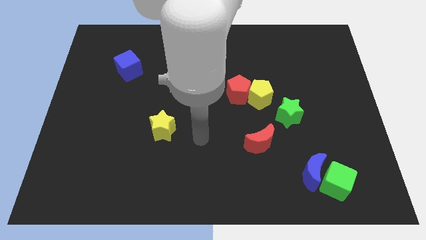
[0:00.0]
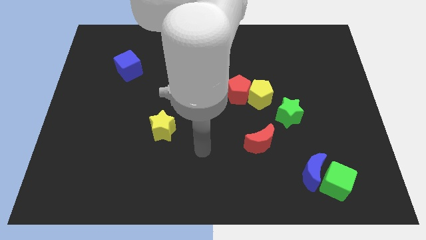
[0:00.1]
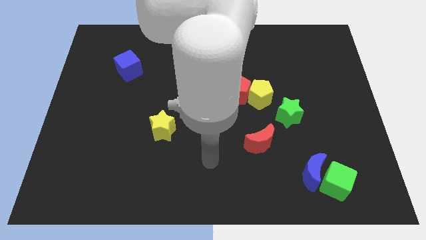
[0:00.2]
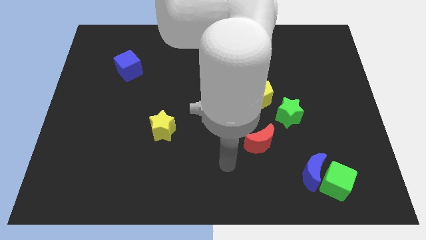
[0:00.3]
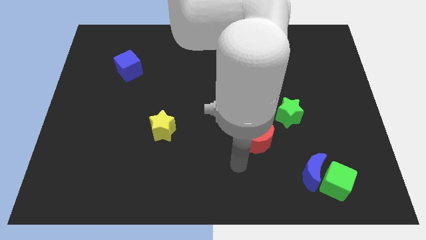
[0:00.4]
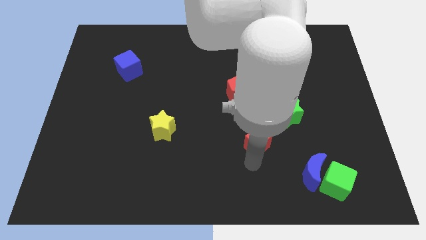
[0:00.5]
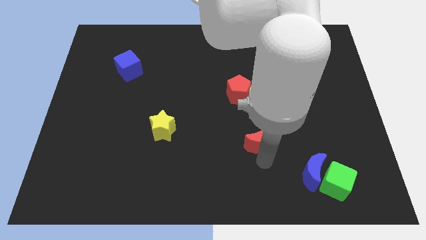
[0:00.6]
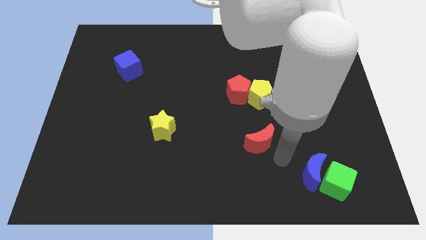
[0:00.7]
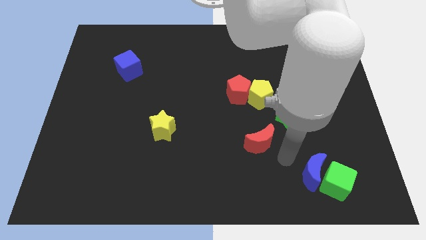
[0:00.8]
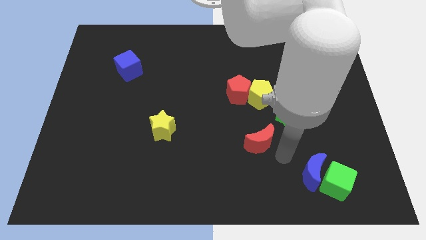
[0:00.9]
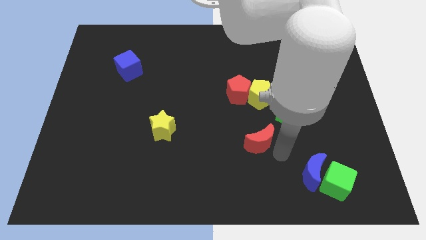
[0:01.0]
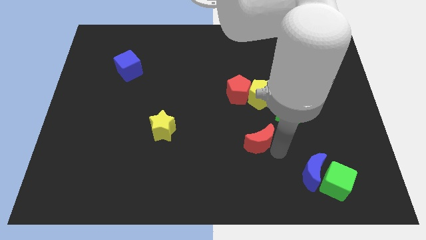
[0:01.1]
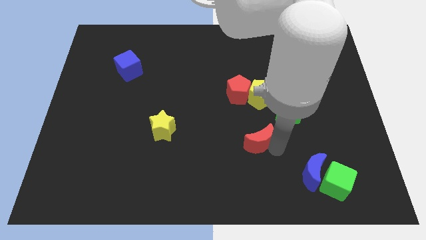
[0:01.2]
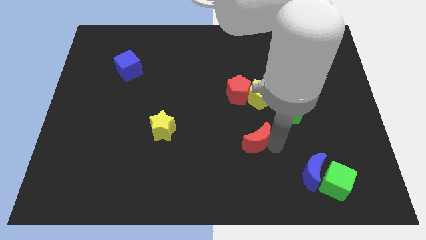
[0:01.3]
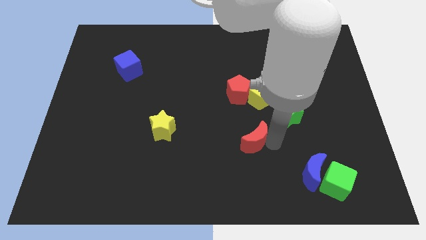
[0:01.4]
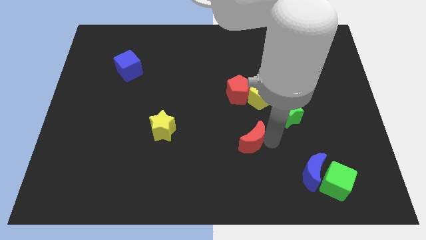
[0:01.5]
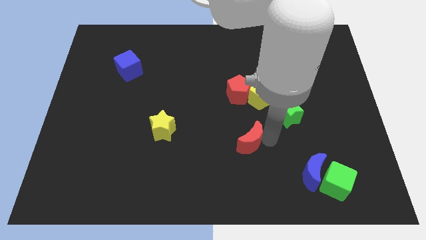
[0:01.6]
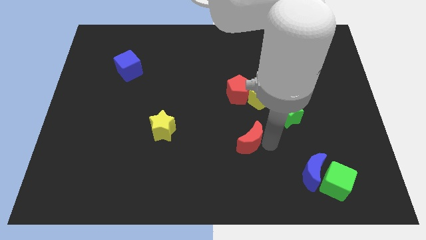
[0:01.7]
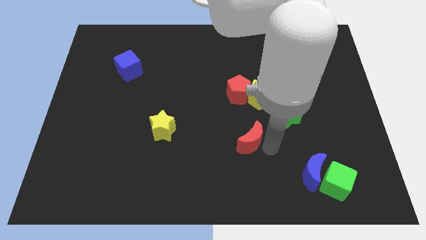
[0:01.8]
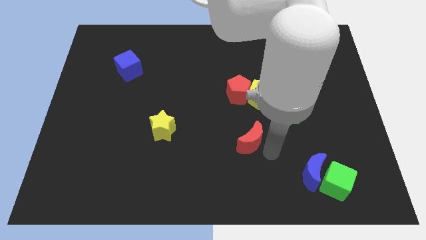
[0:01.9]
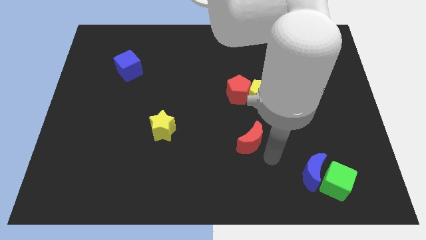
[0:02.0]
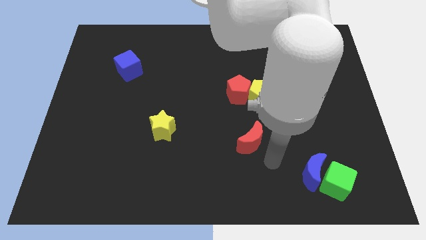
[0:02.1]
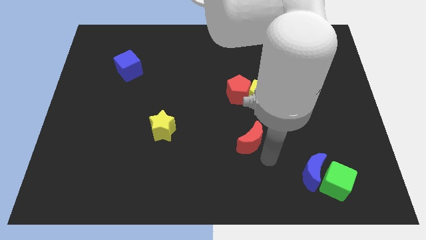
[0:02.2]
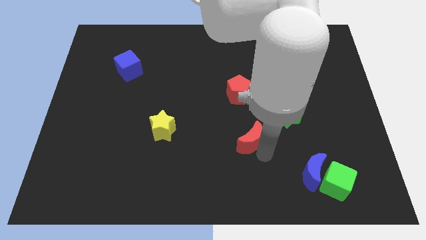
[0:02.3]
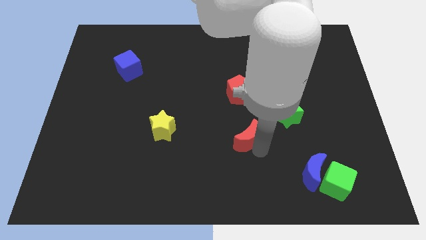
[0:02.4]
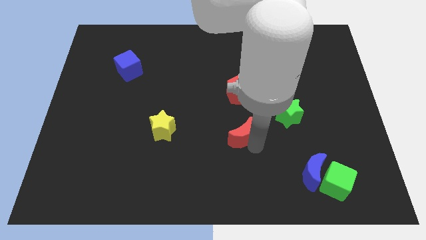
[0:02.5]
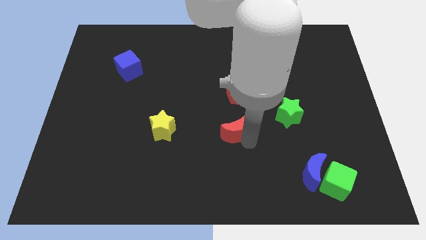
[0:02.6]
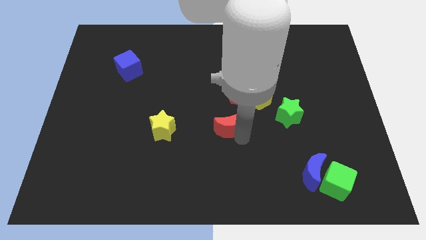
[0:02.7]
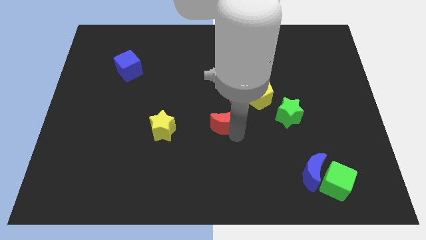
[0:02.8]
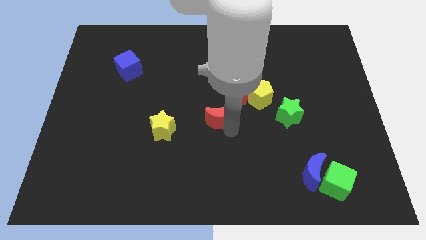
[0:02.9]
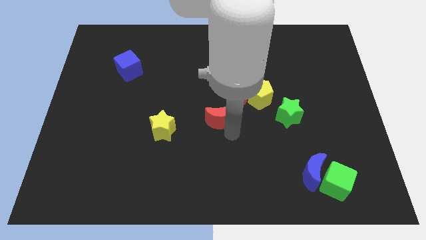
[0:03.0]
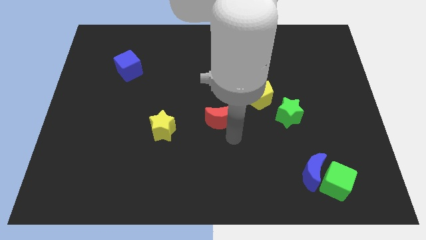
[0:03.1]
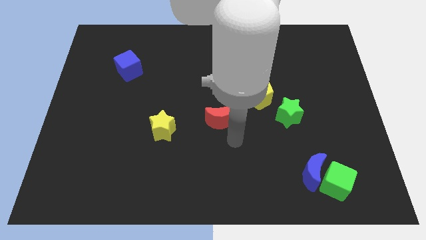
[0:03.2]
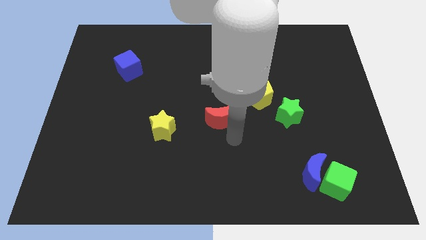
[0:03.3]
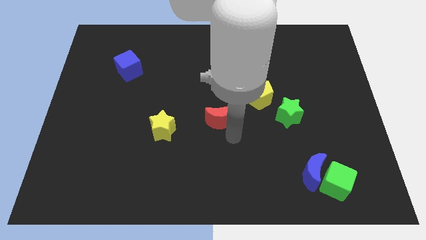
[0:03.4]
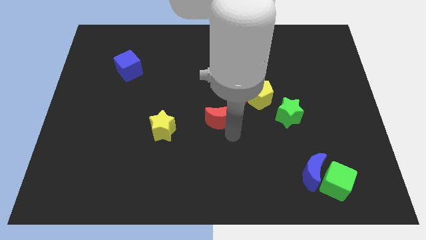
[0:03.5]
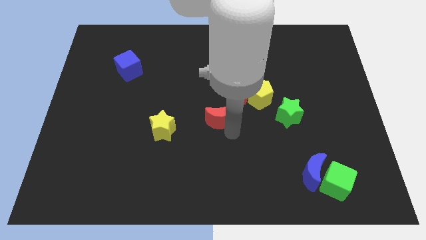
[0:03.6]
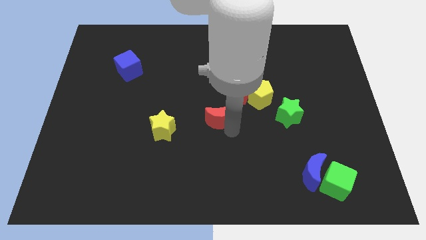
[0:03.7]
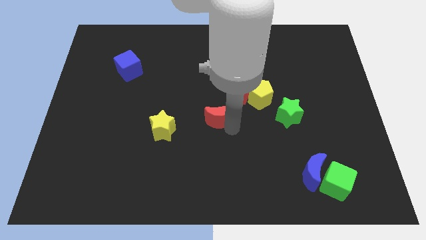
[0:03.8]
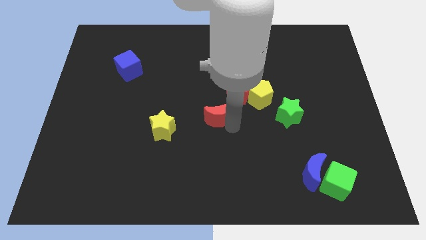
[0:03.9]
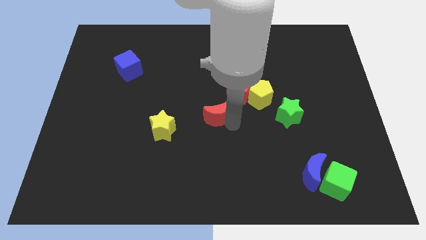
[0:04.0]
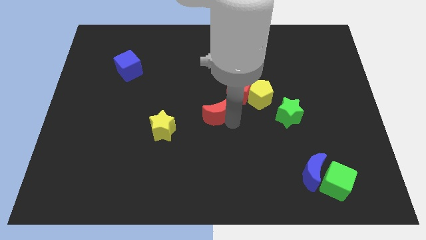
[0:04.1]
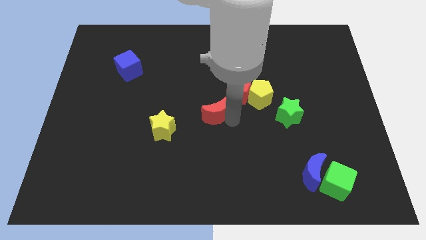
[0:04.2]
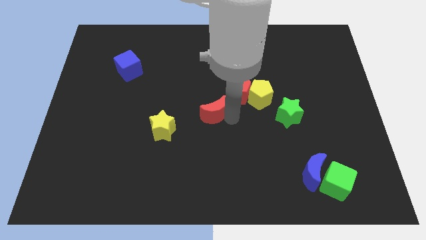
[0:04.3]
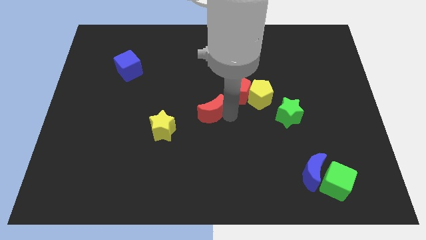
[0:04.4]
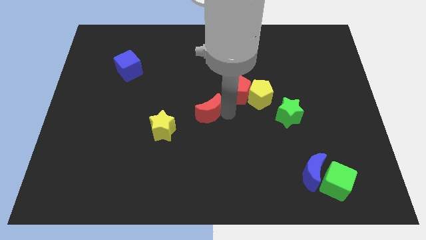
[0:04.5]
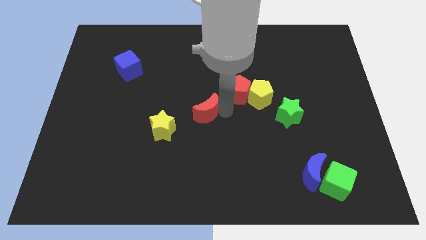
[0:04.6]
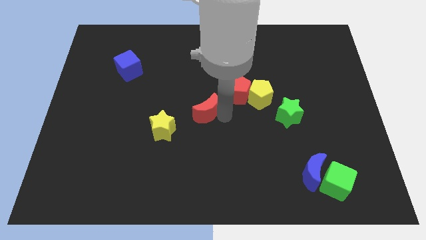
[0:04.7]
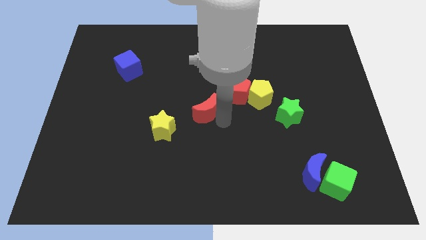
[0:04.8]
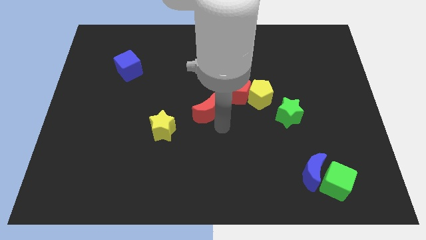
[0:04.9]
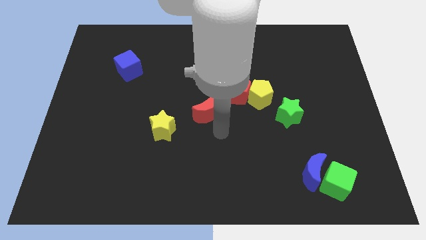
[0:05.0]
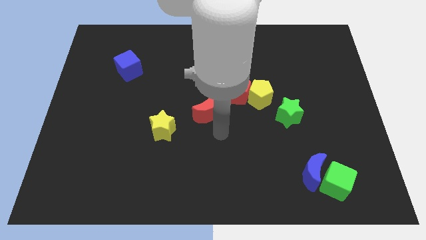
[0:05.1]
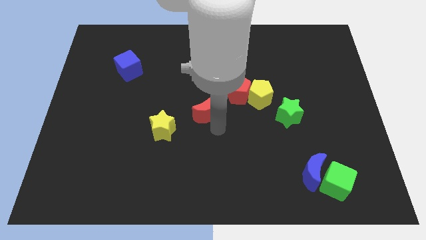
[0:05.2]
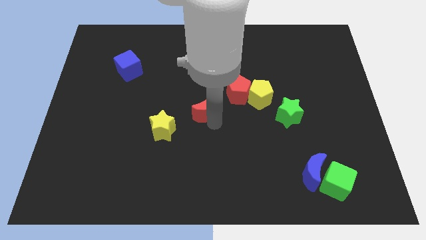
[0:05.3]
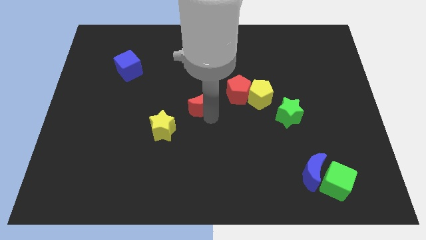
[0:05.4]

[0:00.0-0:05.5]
put the red moon left of the red pentagon

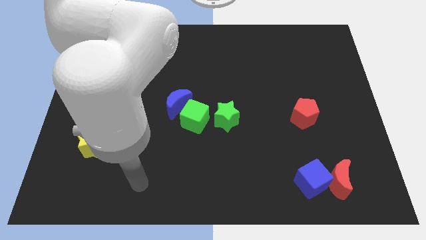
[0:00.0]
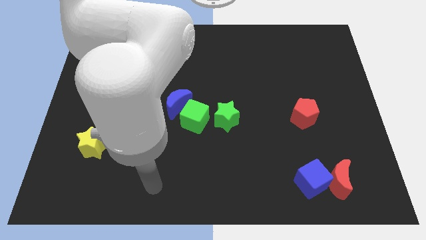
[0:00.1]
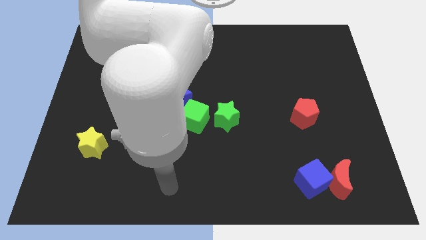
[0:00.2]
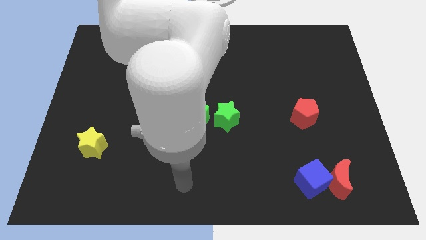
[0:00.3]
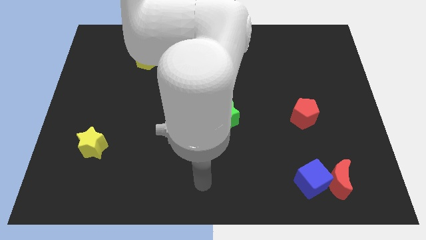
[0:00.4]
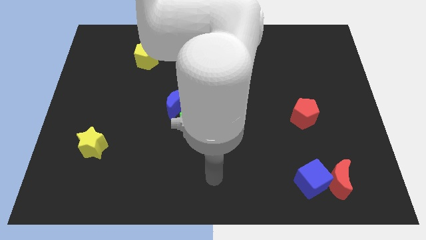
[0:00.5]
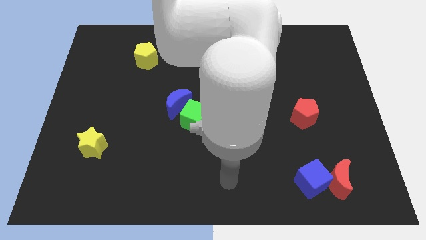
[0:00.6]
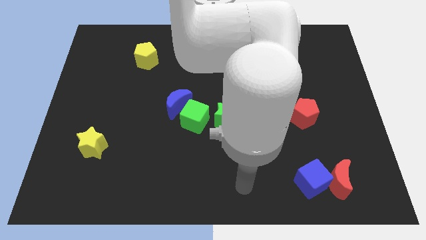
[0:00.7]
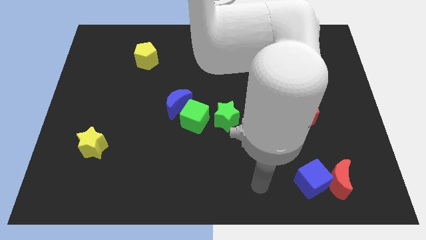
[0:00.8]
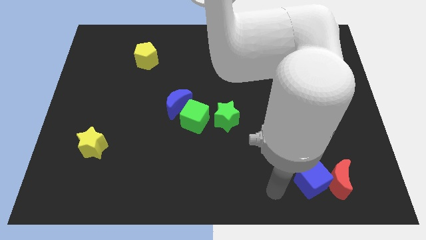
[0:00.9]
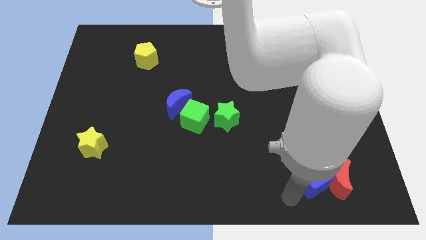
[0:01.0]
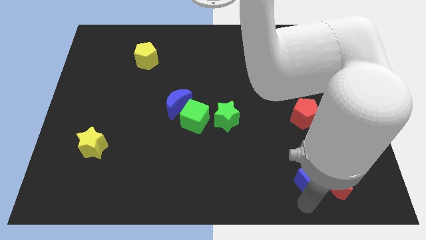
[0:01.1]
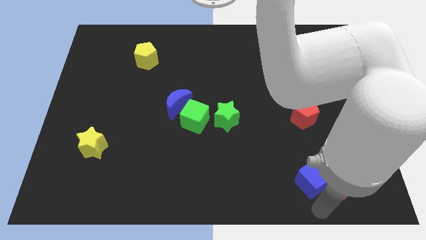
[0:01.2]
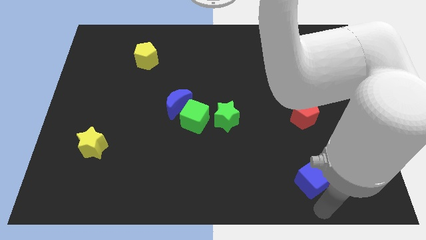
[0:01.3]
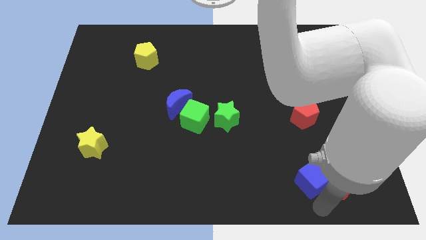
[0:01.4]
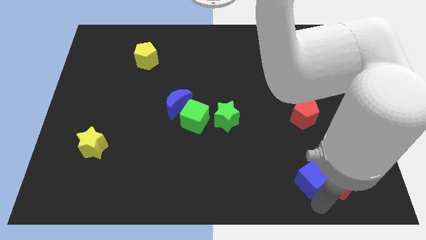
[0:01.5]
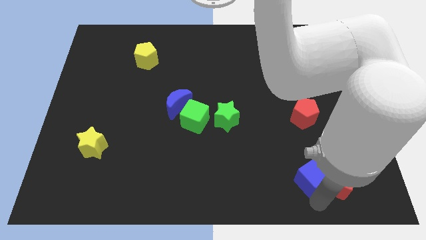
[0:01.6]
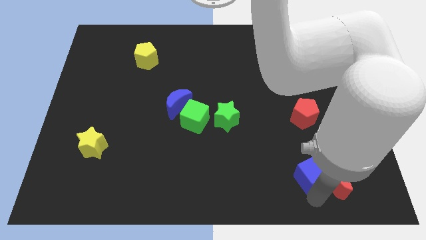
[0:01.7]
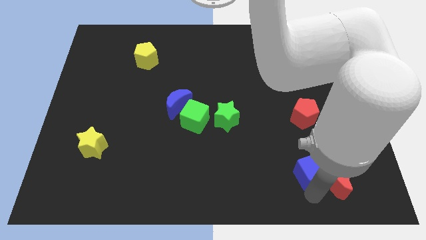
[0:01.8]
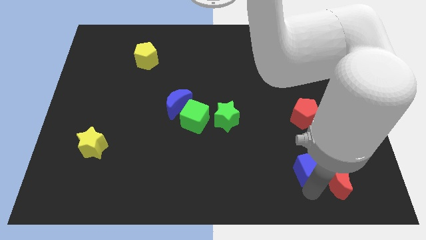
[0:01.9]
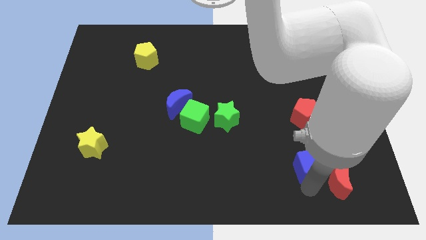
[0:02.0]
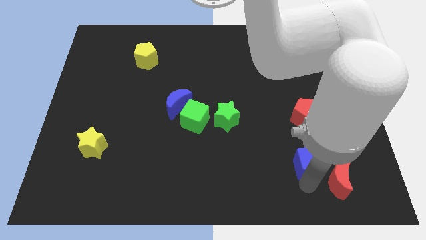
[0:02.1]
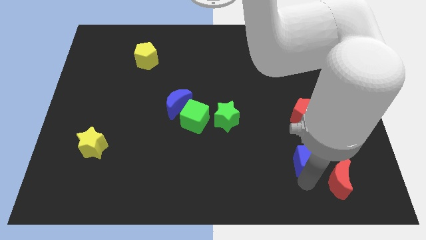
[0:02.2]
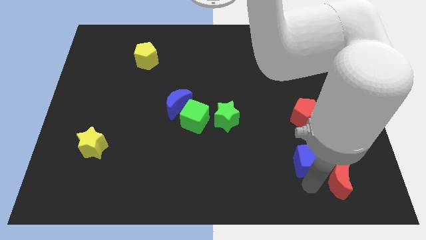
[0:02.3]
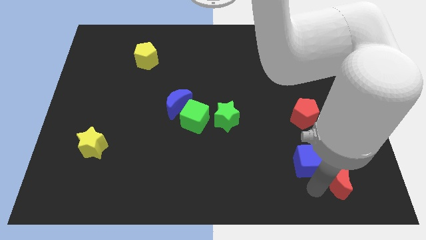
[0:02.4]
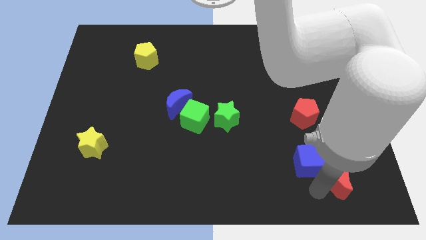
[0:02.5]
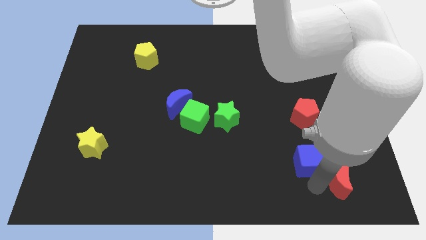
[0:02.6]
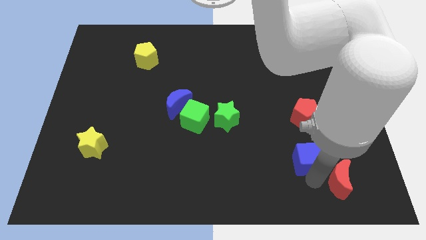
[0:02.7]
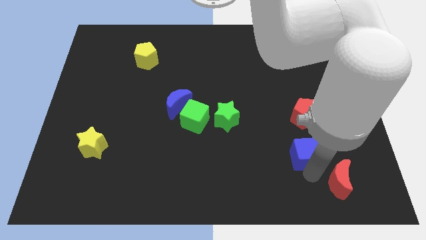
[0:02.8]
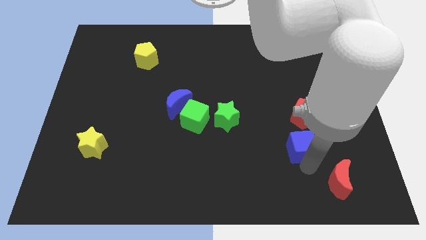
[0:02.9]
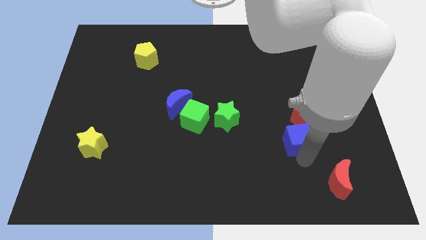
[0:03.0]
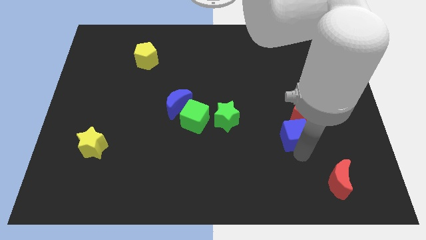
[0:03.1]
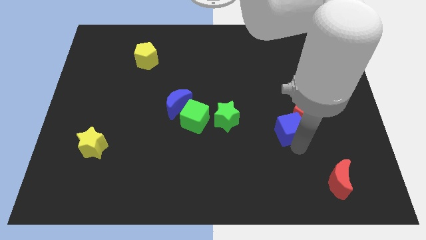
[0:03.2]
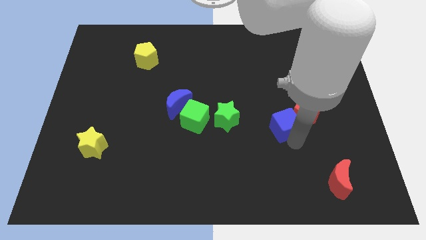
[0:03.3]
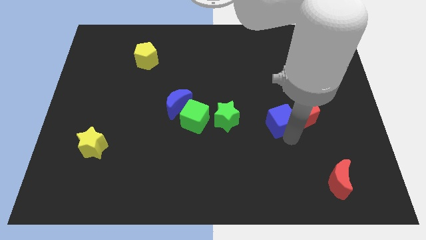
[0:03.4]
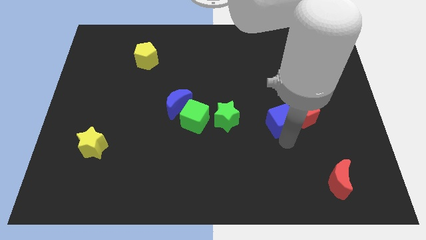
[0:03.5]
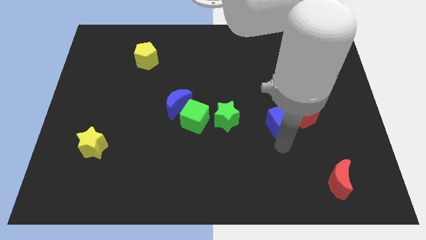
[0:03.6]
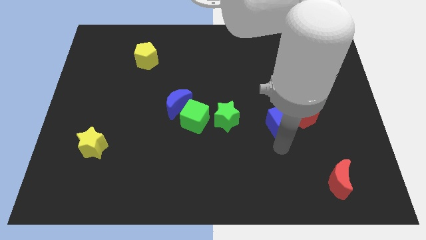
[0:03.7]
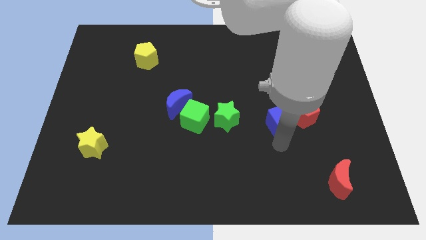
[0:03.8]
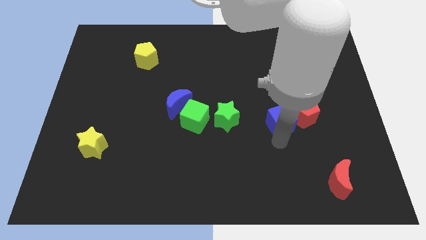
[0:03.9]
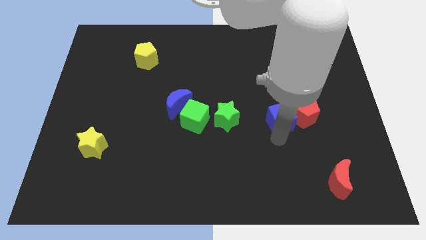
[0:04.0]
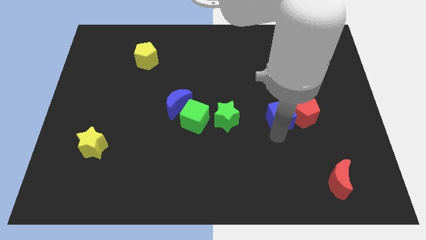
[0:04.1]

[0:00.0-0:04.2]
move the blue cube diagonally up and to the left of the red pentagon
